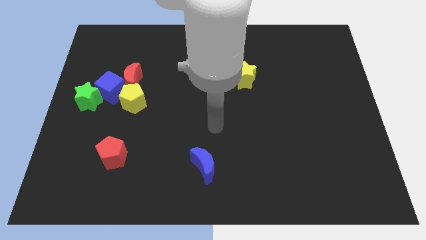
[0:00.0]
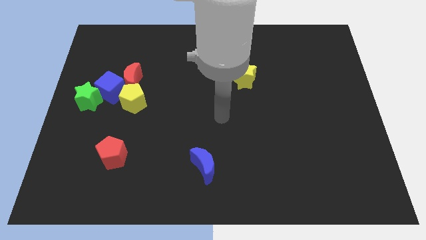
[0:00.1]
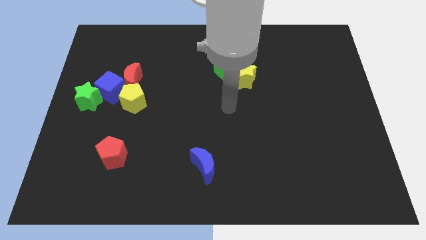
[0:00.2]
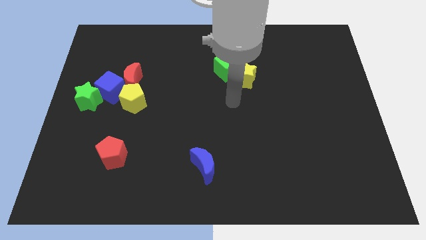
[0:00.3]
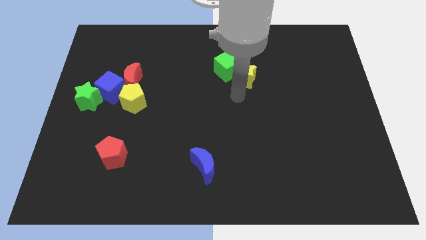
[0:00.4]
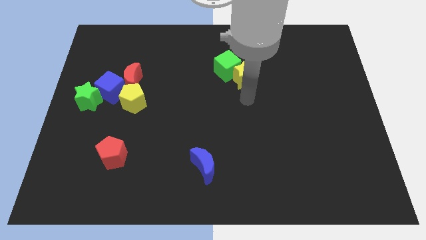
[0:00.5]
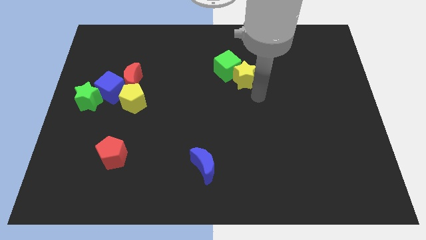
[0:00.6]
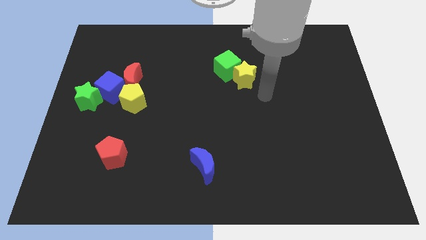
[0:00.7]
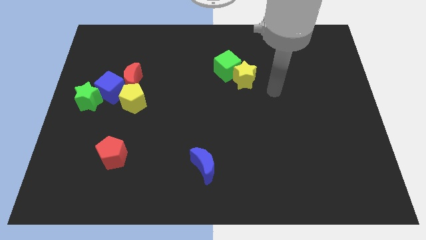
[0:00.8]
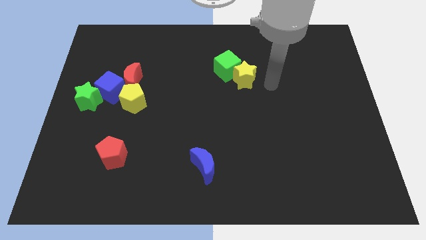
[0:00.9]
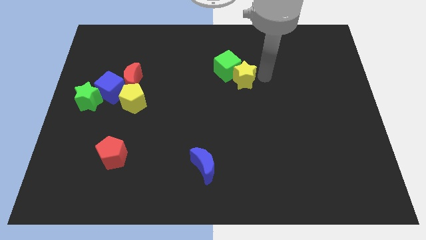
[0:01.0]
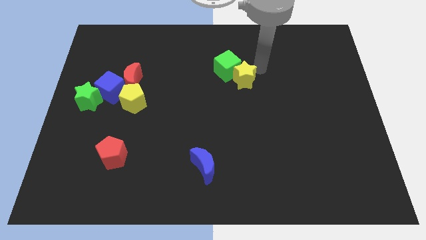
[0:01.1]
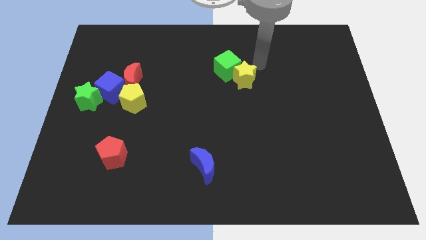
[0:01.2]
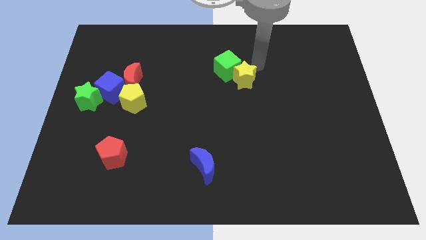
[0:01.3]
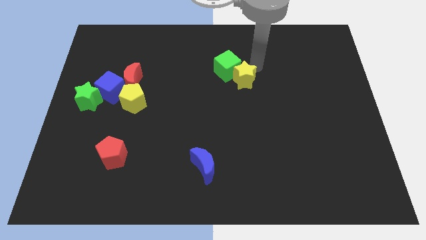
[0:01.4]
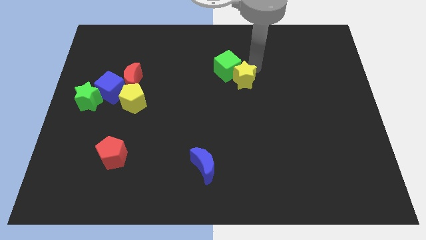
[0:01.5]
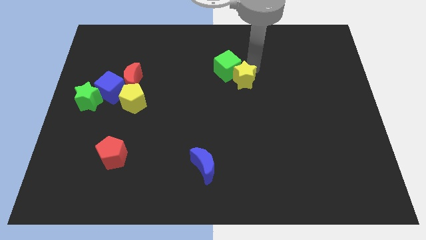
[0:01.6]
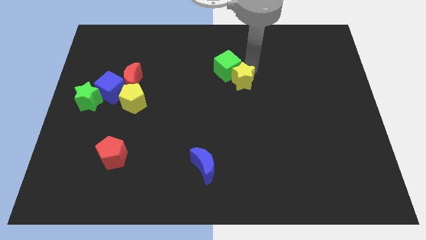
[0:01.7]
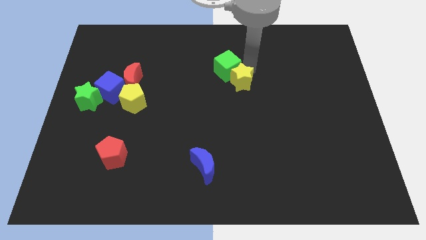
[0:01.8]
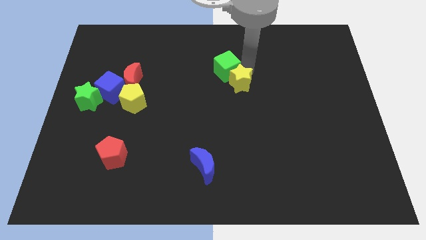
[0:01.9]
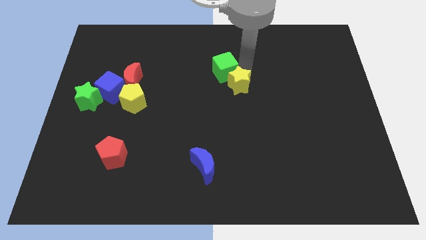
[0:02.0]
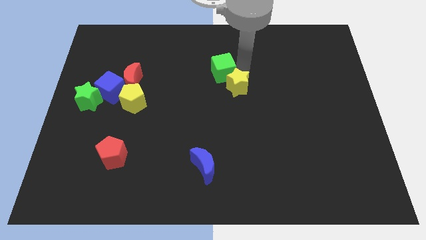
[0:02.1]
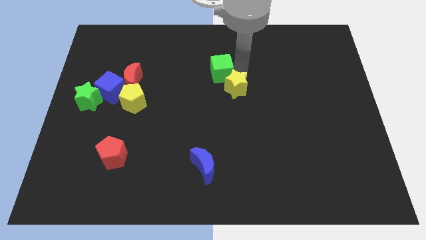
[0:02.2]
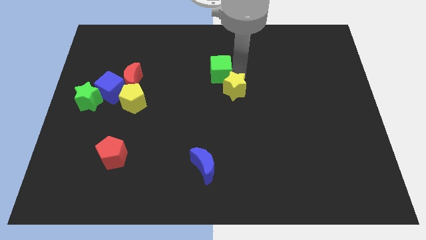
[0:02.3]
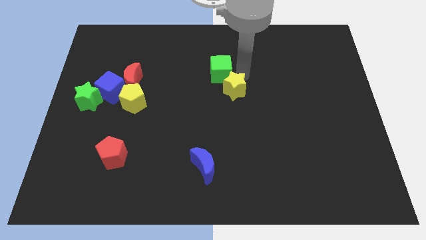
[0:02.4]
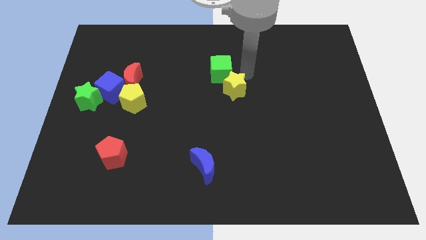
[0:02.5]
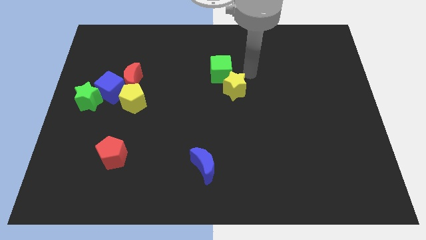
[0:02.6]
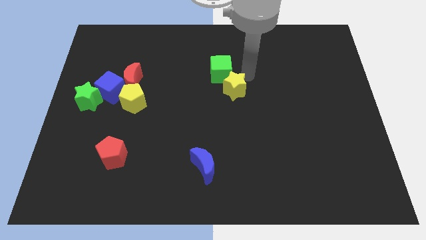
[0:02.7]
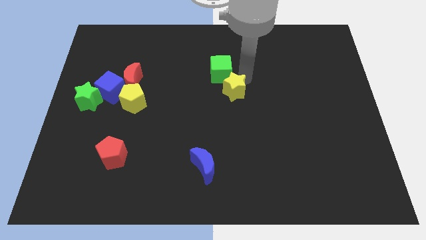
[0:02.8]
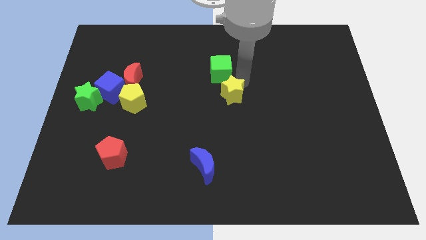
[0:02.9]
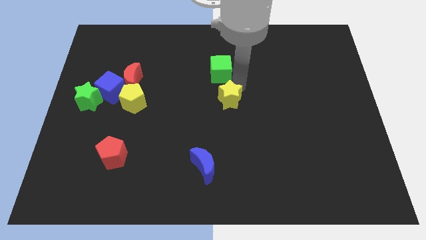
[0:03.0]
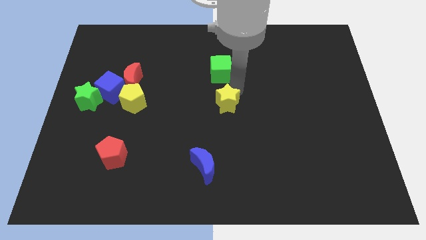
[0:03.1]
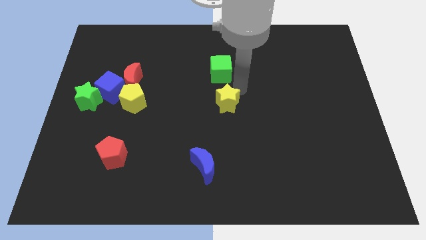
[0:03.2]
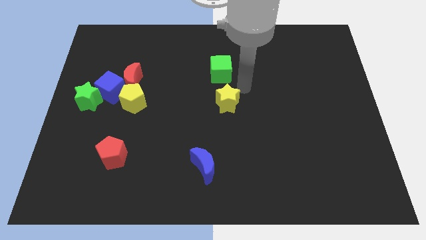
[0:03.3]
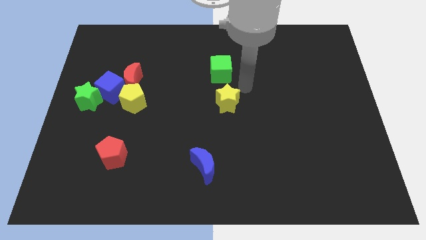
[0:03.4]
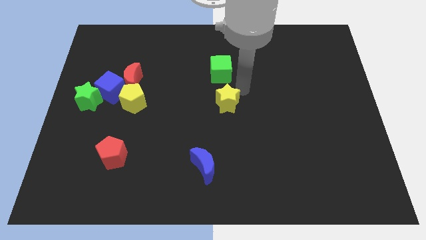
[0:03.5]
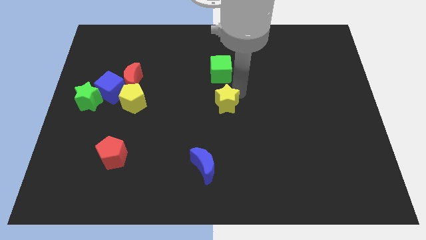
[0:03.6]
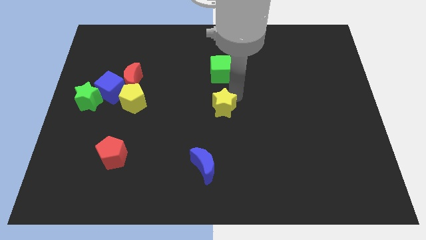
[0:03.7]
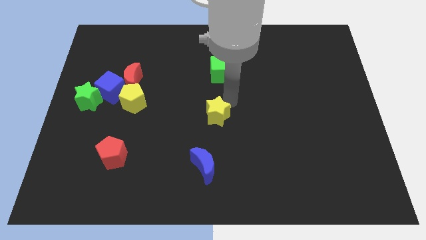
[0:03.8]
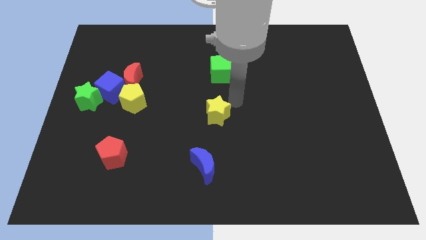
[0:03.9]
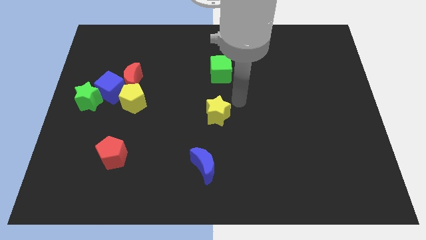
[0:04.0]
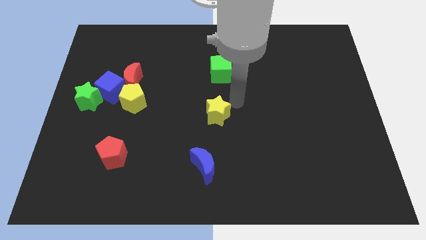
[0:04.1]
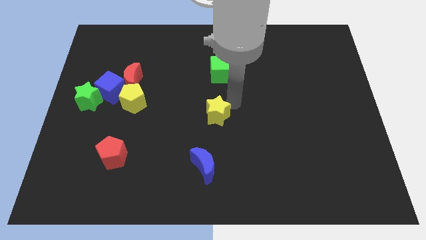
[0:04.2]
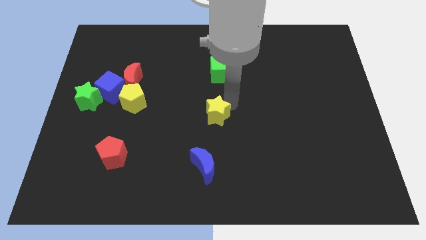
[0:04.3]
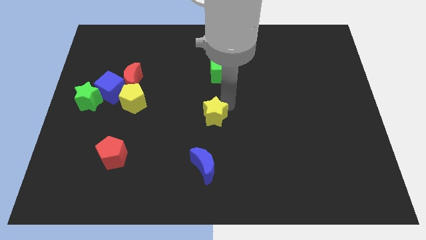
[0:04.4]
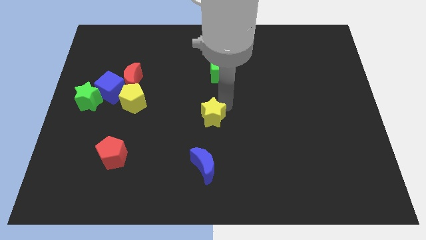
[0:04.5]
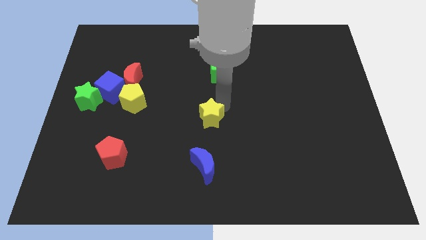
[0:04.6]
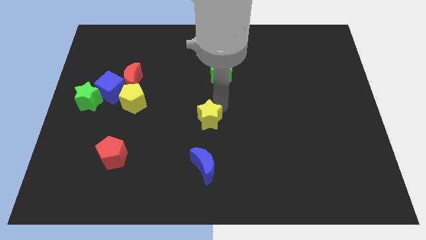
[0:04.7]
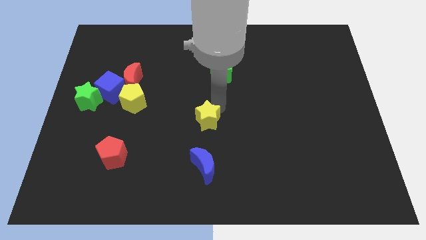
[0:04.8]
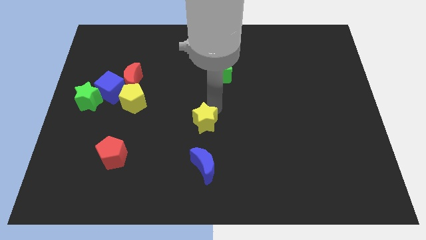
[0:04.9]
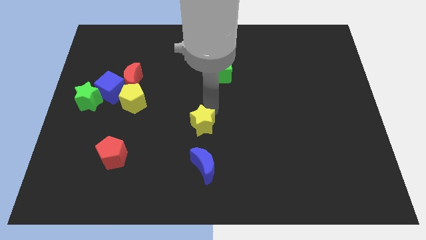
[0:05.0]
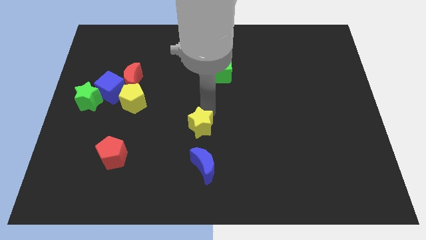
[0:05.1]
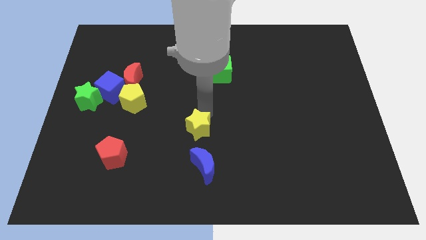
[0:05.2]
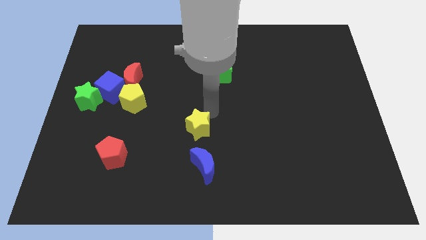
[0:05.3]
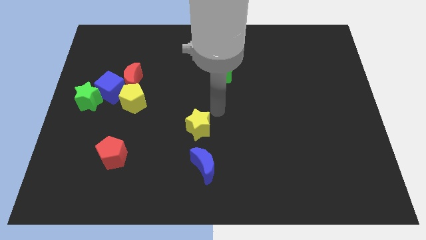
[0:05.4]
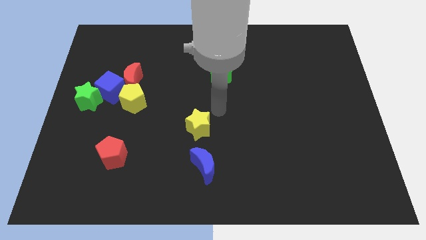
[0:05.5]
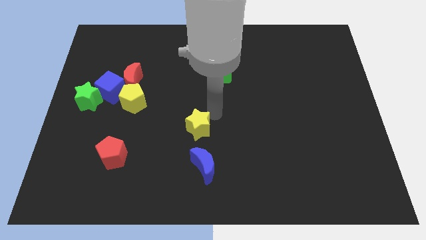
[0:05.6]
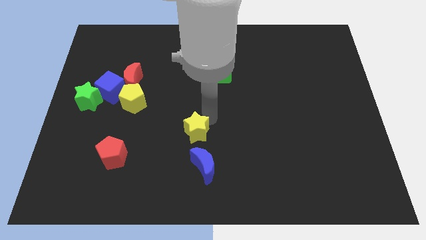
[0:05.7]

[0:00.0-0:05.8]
put the yellow star diagonally up and to the left of the blue moon

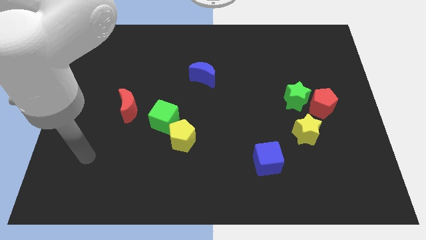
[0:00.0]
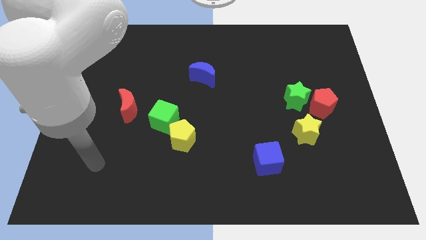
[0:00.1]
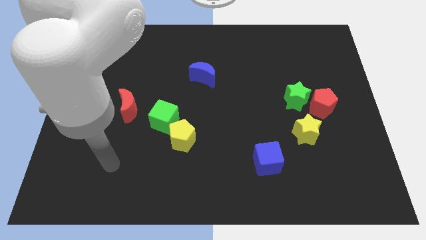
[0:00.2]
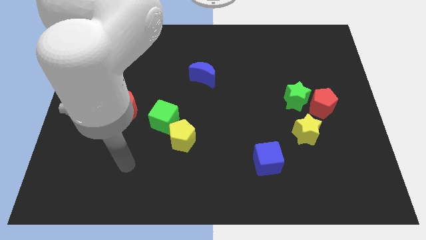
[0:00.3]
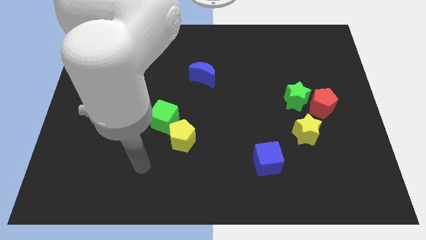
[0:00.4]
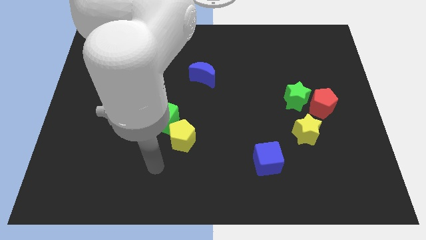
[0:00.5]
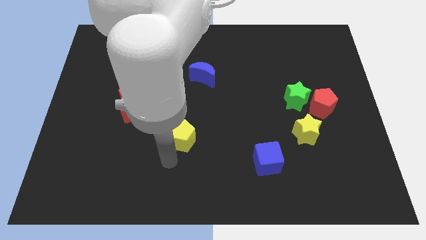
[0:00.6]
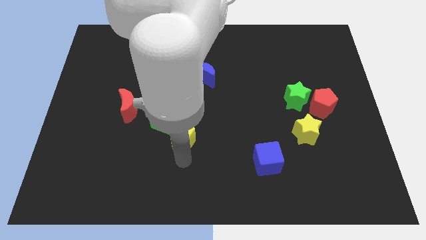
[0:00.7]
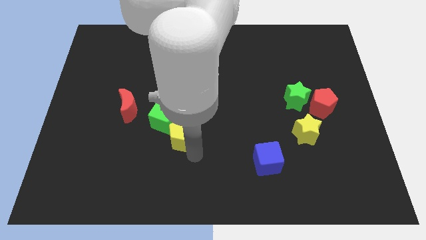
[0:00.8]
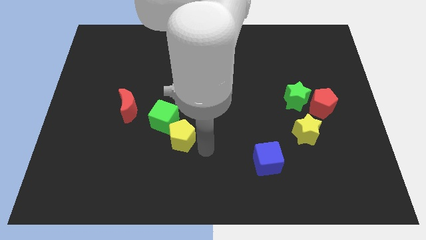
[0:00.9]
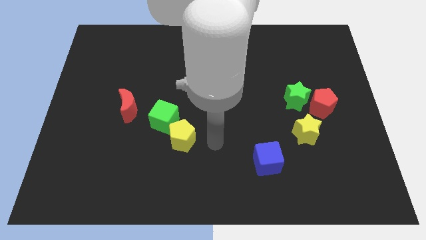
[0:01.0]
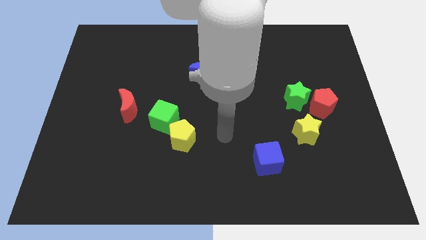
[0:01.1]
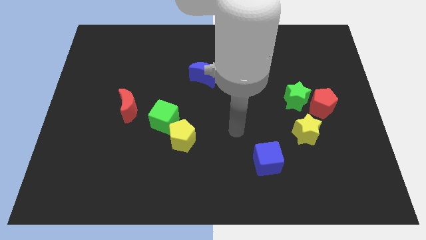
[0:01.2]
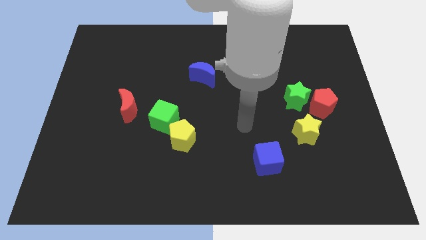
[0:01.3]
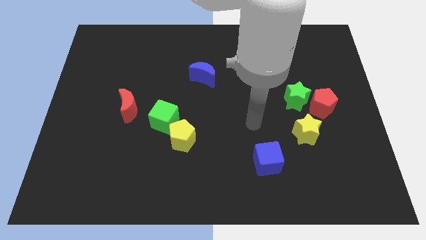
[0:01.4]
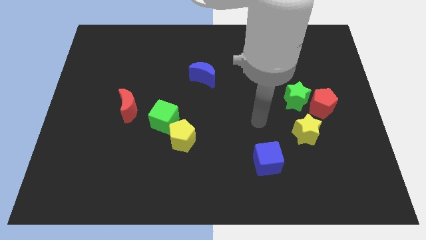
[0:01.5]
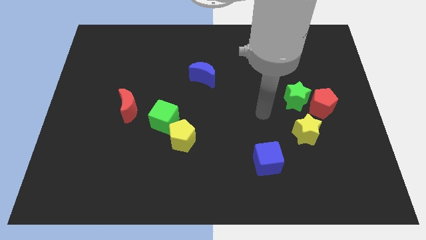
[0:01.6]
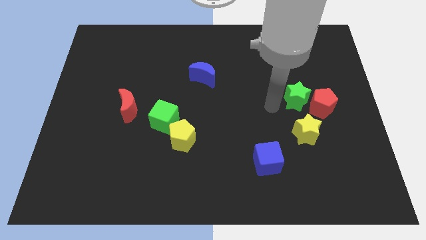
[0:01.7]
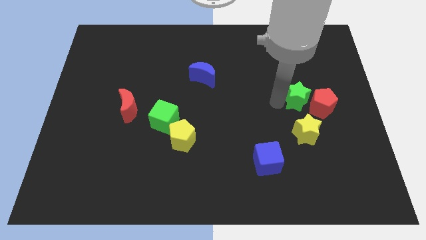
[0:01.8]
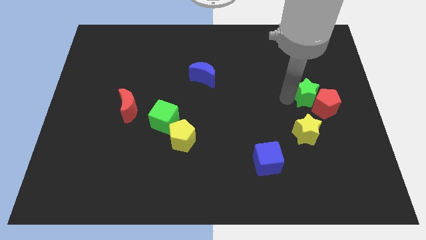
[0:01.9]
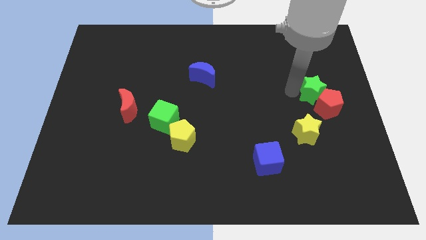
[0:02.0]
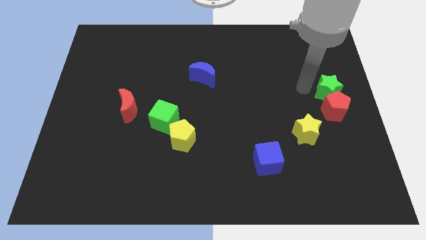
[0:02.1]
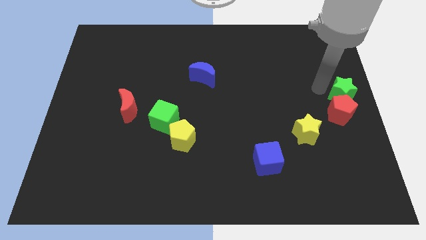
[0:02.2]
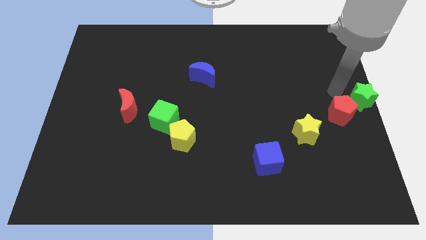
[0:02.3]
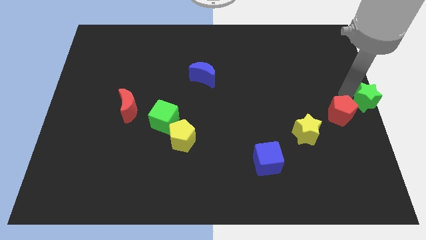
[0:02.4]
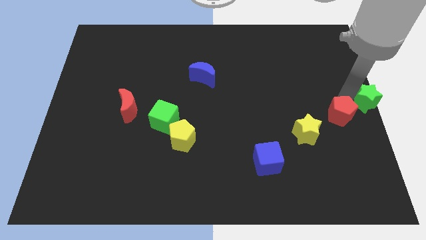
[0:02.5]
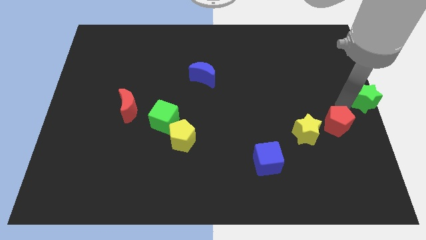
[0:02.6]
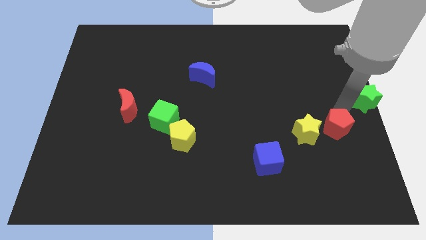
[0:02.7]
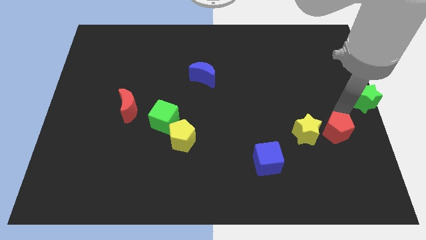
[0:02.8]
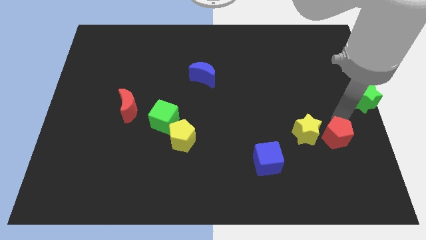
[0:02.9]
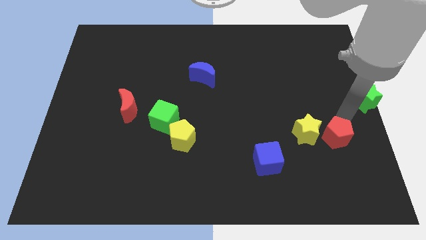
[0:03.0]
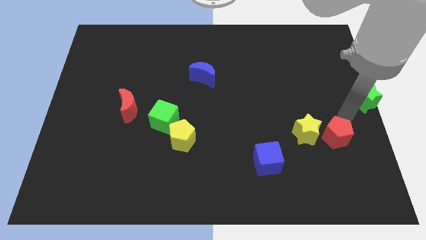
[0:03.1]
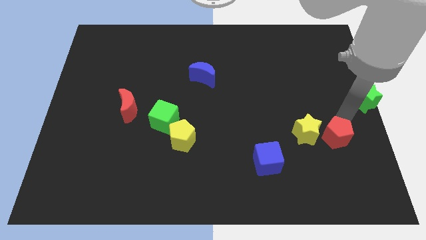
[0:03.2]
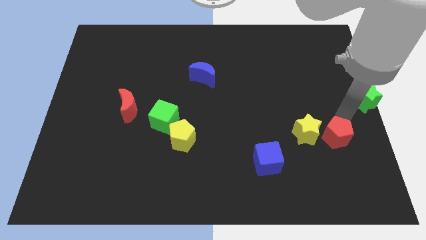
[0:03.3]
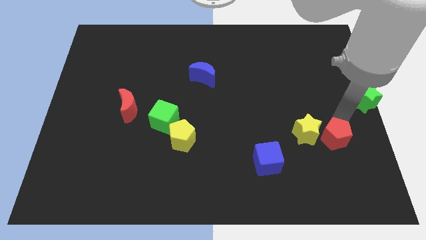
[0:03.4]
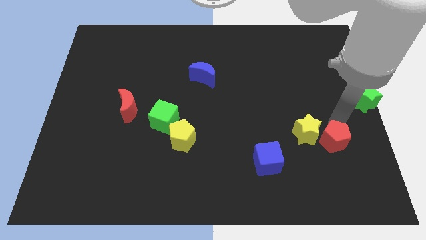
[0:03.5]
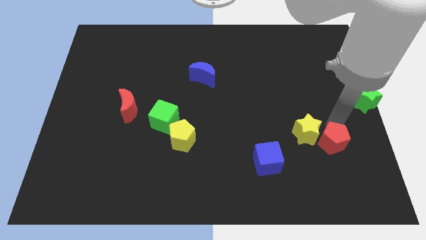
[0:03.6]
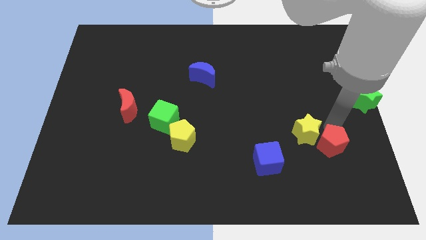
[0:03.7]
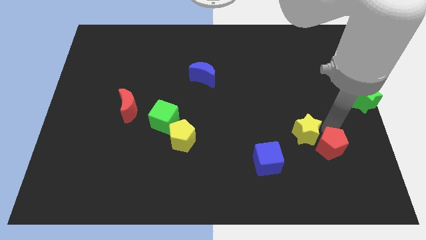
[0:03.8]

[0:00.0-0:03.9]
move the red pentagon below the yellow star
